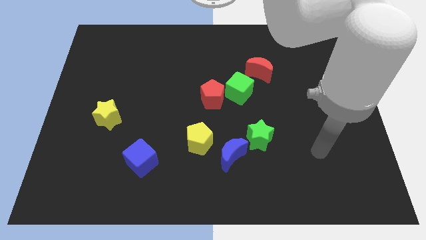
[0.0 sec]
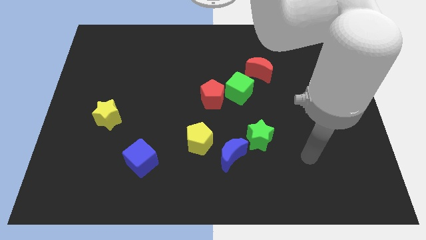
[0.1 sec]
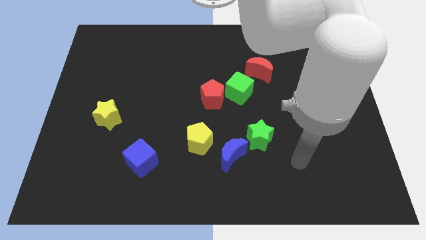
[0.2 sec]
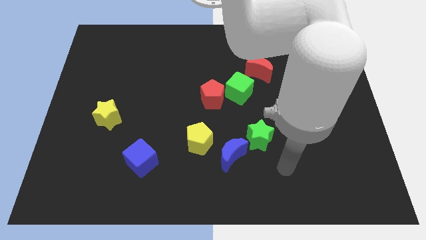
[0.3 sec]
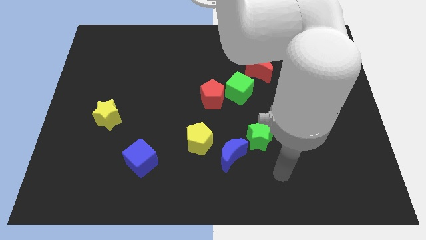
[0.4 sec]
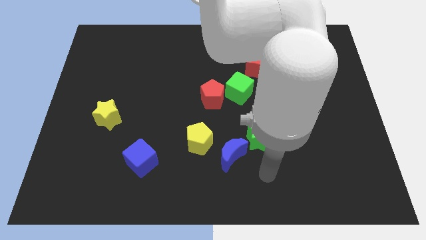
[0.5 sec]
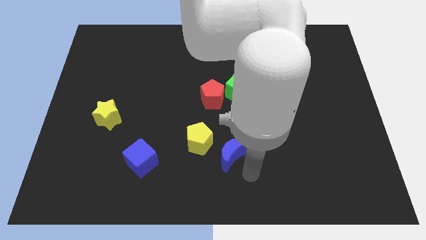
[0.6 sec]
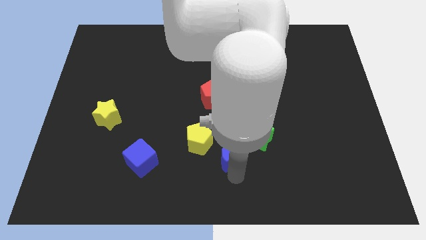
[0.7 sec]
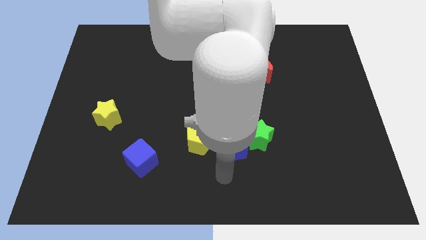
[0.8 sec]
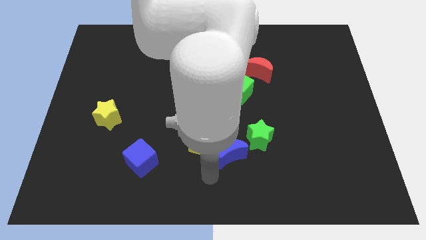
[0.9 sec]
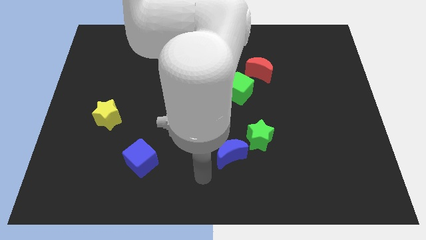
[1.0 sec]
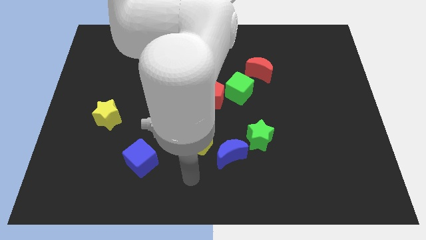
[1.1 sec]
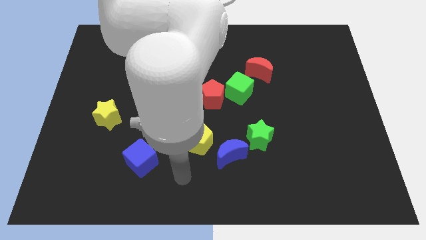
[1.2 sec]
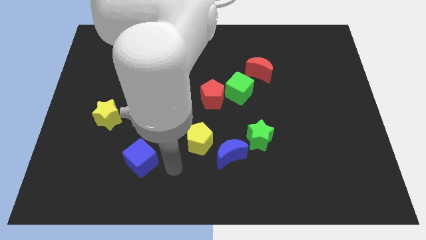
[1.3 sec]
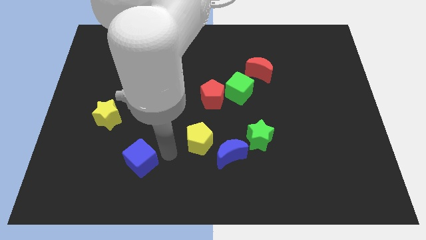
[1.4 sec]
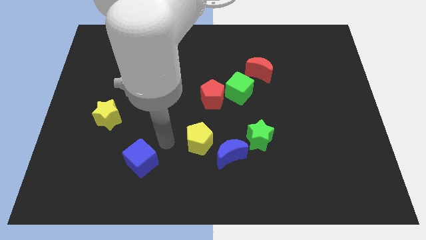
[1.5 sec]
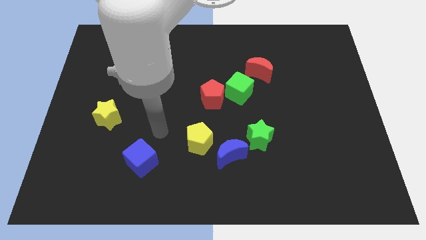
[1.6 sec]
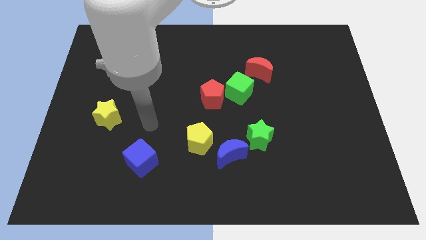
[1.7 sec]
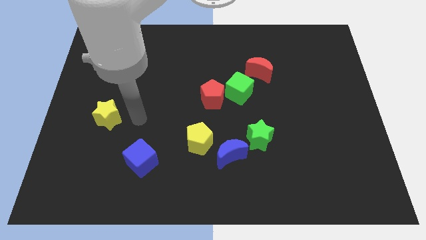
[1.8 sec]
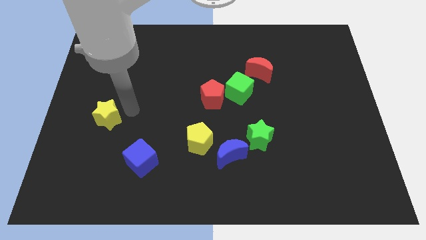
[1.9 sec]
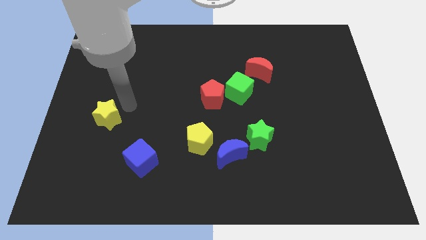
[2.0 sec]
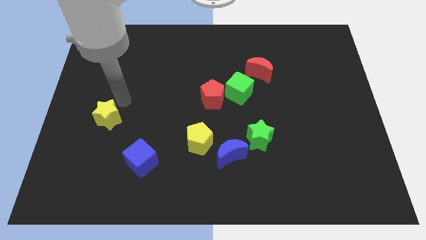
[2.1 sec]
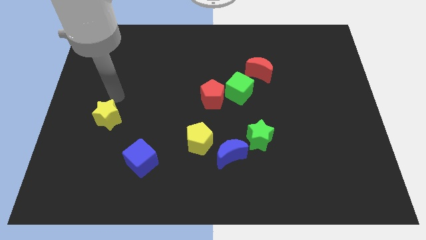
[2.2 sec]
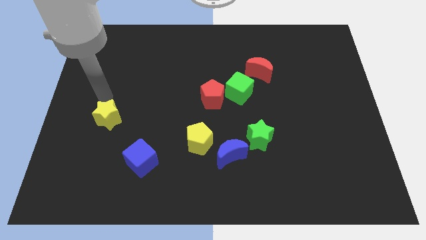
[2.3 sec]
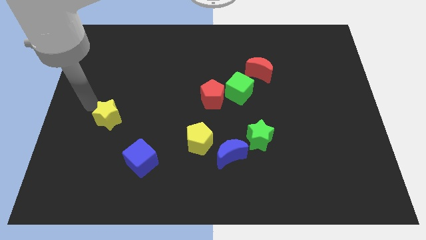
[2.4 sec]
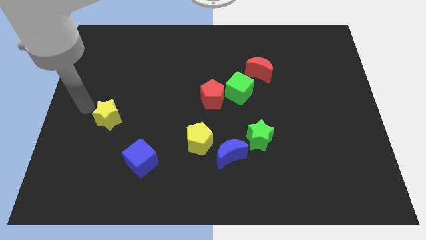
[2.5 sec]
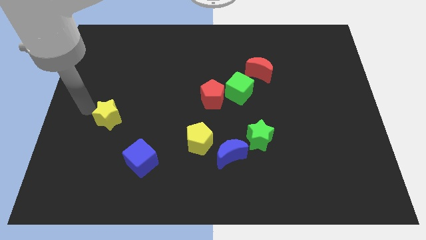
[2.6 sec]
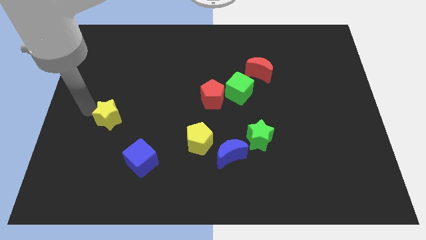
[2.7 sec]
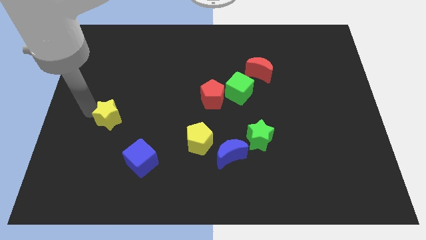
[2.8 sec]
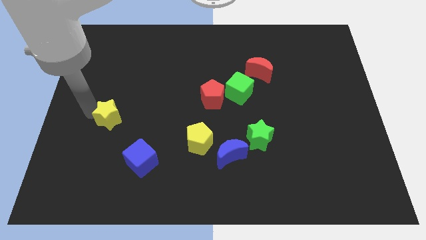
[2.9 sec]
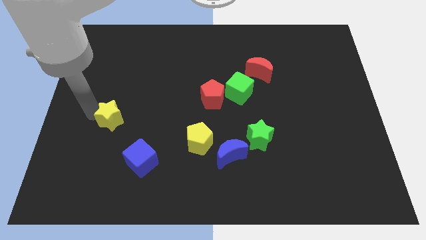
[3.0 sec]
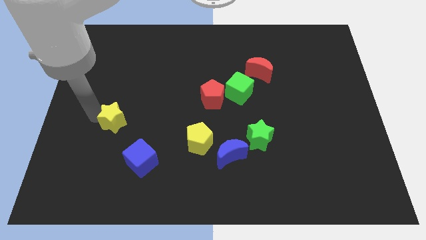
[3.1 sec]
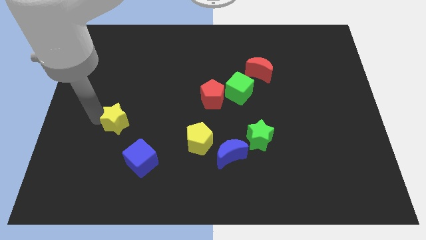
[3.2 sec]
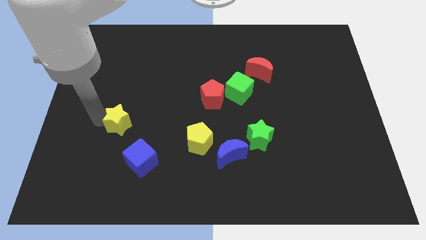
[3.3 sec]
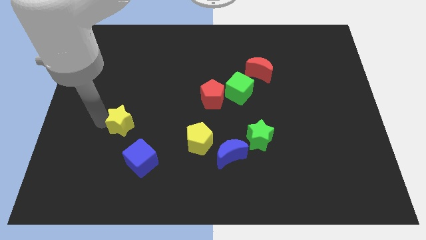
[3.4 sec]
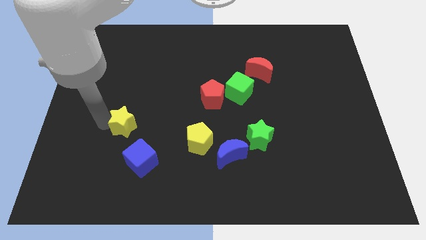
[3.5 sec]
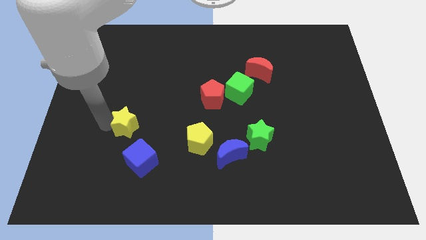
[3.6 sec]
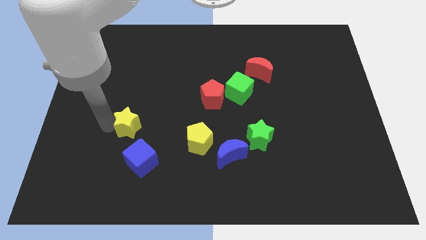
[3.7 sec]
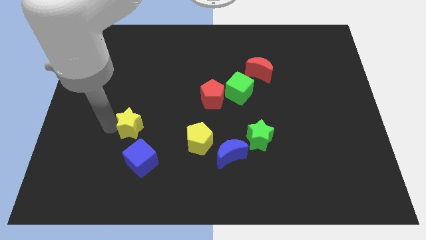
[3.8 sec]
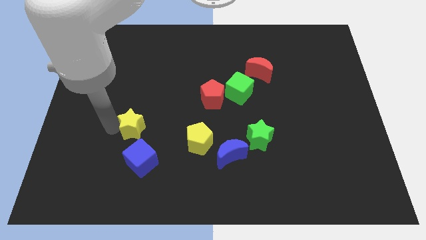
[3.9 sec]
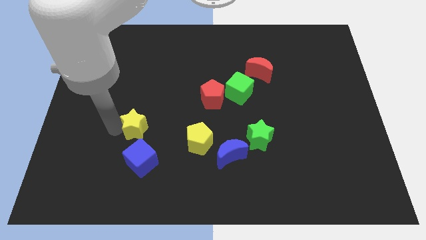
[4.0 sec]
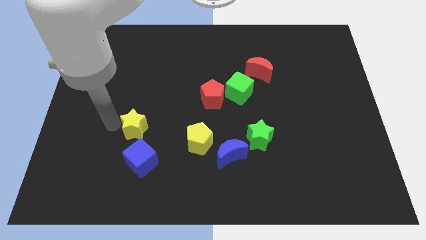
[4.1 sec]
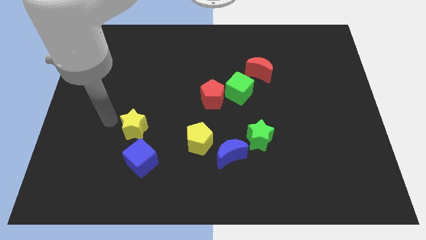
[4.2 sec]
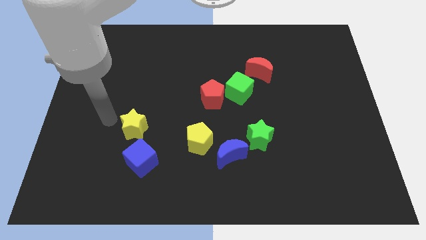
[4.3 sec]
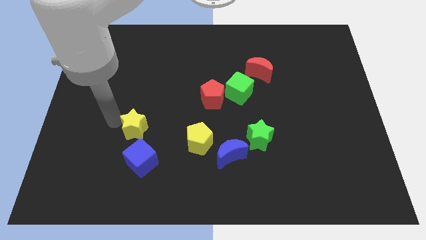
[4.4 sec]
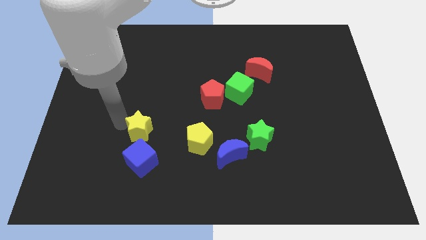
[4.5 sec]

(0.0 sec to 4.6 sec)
slightly push the yellow star down and then right

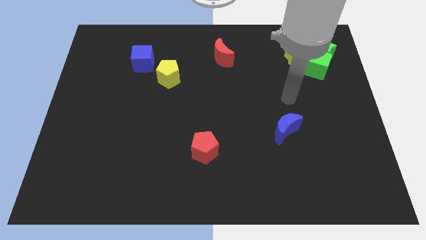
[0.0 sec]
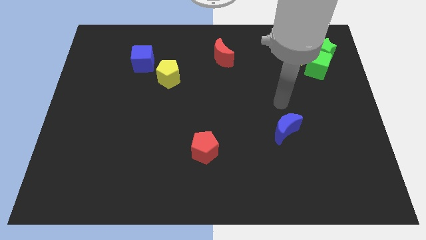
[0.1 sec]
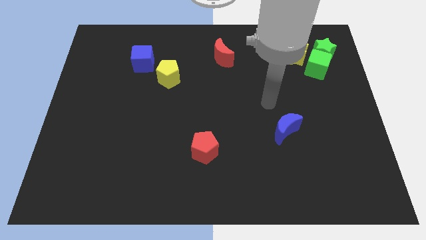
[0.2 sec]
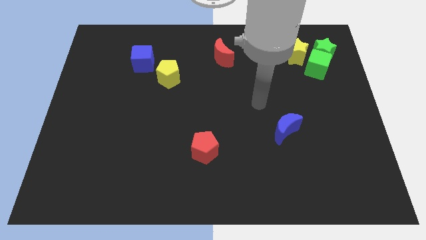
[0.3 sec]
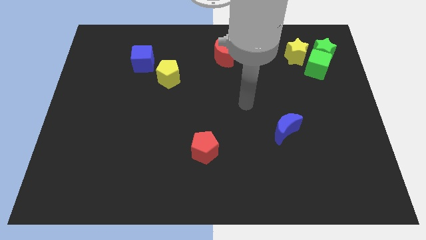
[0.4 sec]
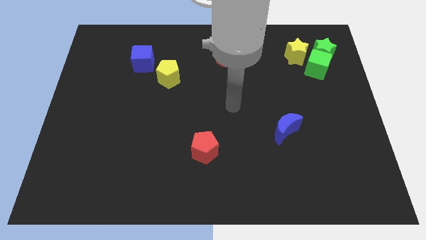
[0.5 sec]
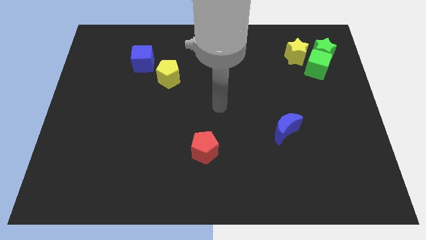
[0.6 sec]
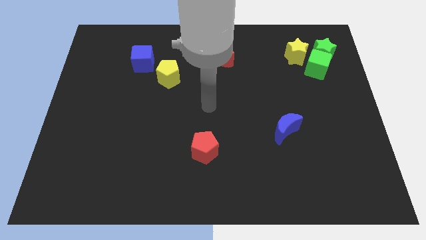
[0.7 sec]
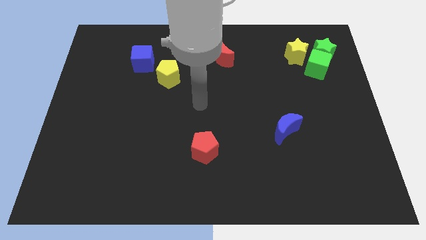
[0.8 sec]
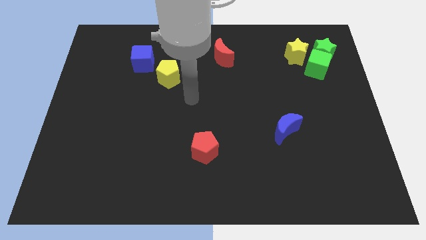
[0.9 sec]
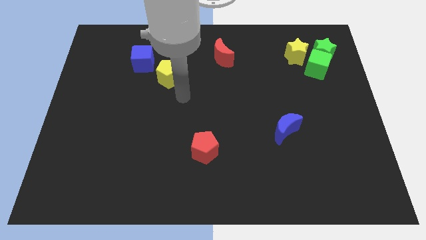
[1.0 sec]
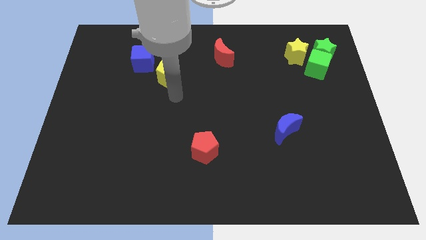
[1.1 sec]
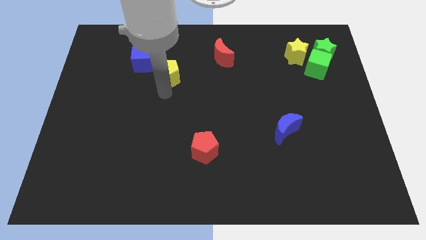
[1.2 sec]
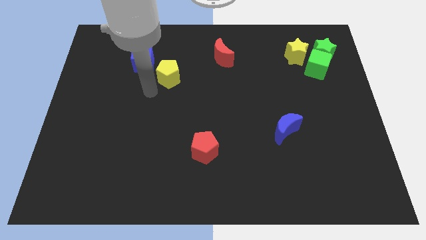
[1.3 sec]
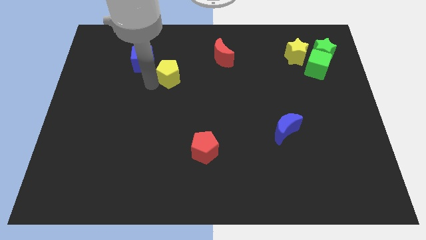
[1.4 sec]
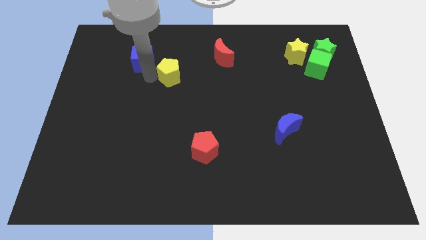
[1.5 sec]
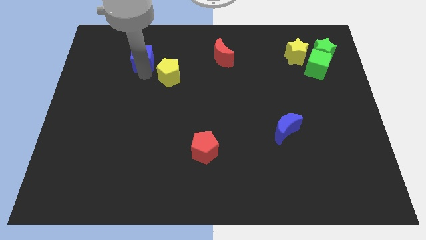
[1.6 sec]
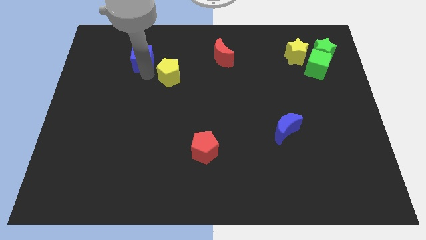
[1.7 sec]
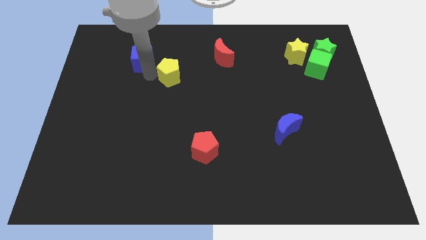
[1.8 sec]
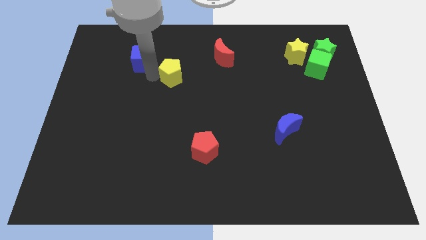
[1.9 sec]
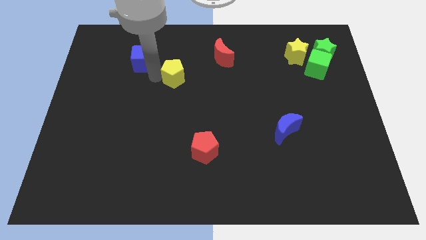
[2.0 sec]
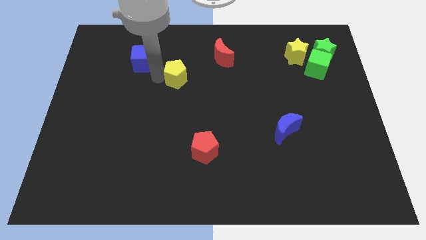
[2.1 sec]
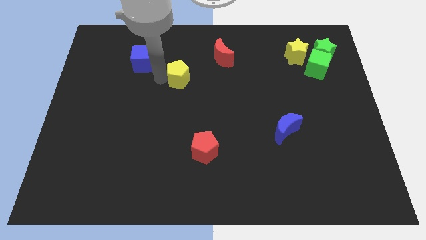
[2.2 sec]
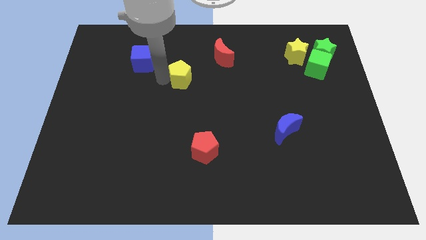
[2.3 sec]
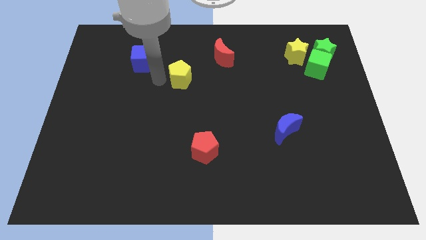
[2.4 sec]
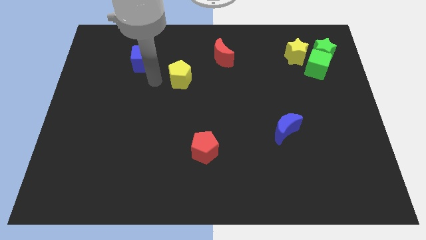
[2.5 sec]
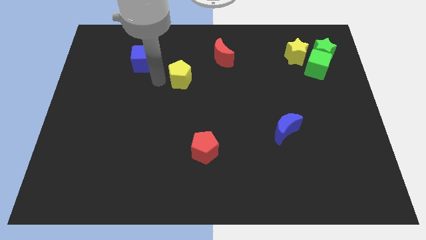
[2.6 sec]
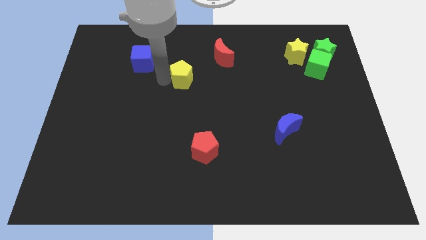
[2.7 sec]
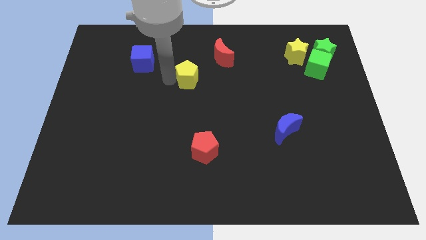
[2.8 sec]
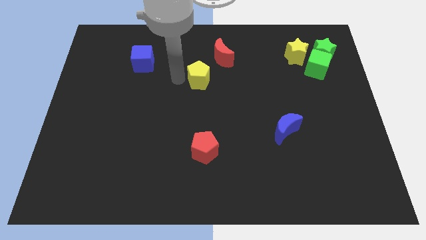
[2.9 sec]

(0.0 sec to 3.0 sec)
move the yellow pentagon a bit right

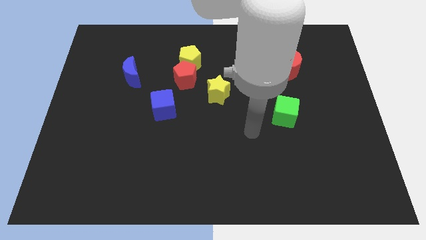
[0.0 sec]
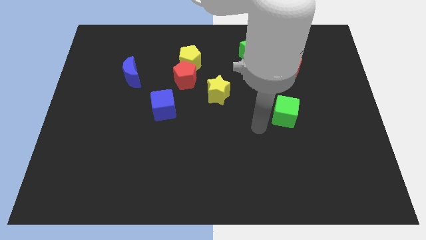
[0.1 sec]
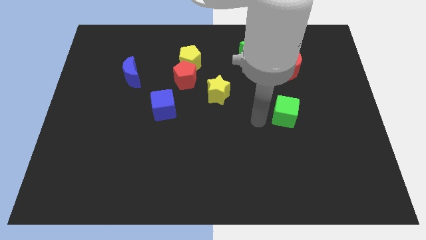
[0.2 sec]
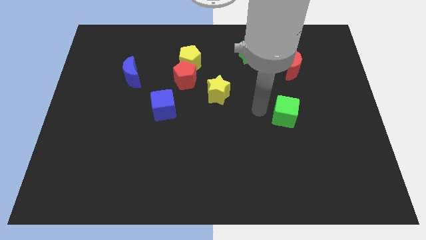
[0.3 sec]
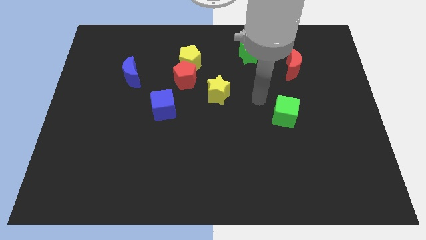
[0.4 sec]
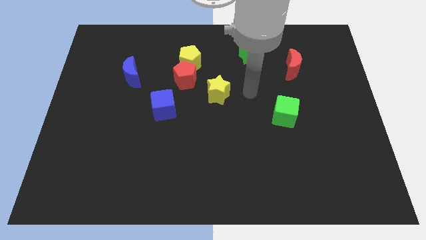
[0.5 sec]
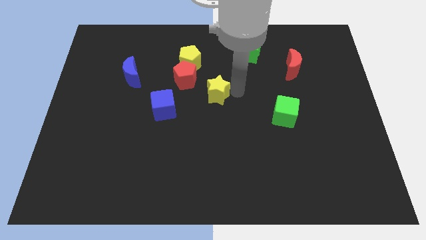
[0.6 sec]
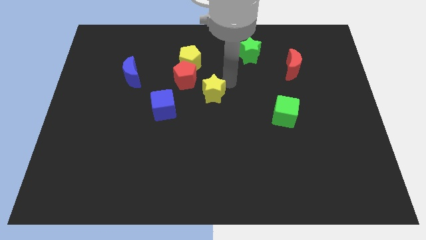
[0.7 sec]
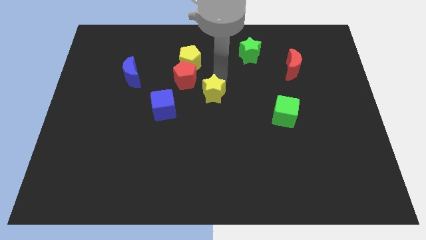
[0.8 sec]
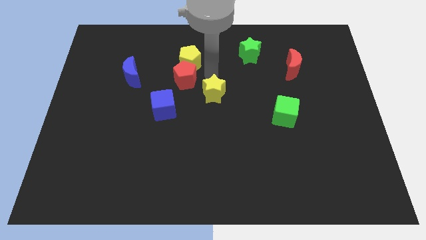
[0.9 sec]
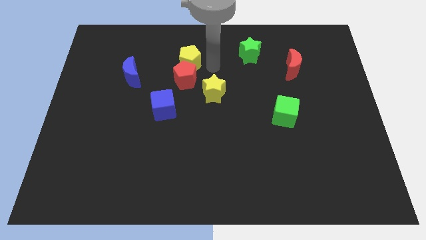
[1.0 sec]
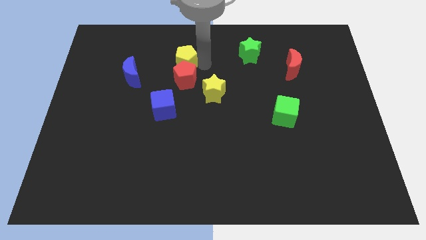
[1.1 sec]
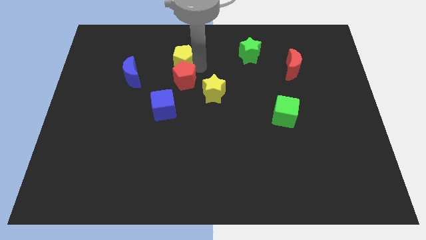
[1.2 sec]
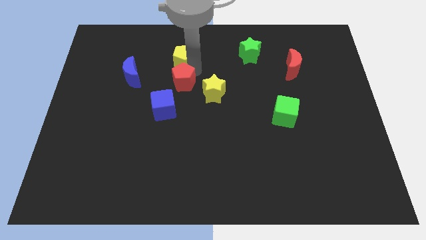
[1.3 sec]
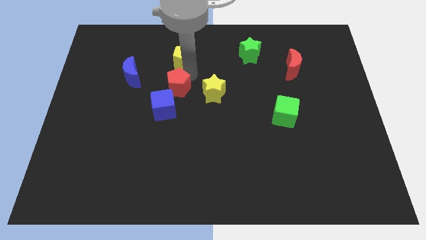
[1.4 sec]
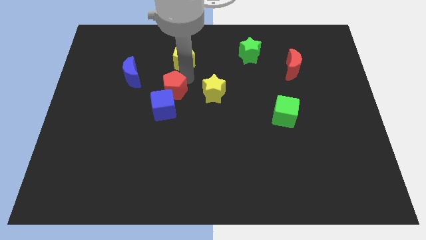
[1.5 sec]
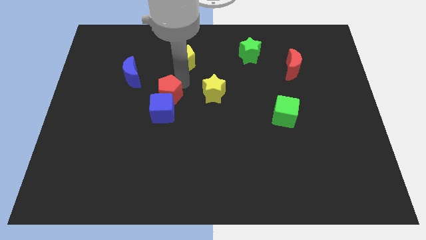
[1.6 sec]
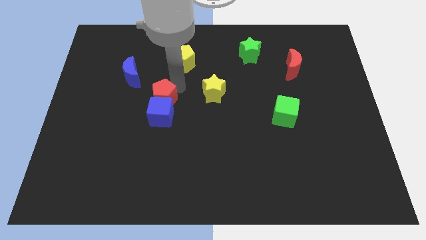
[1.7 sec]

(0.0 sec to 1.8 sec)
push the red pentagon slightly diagonally down and to the left
